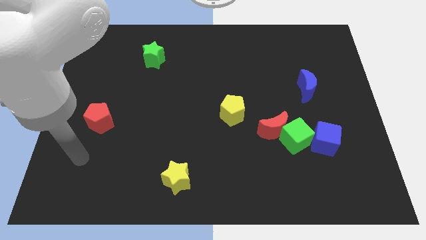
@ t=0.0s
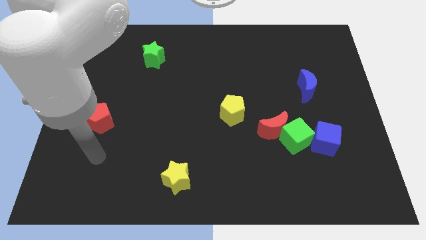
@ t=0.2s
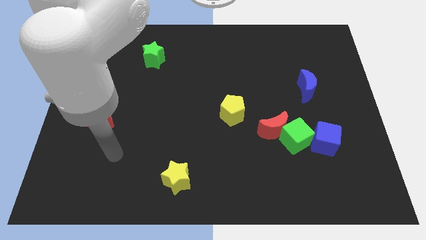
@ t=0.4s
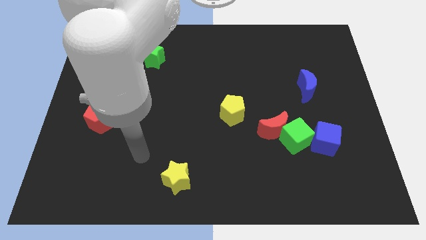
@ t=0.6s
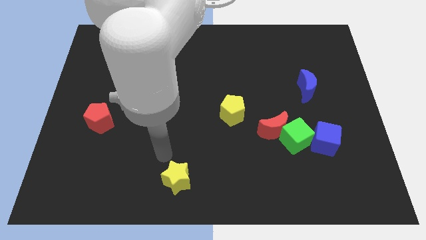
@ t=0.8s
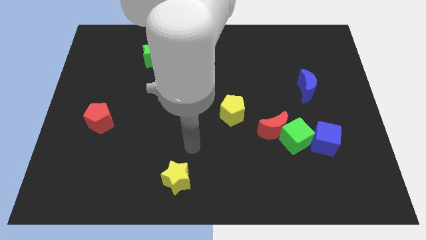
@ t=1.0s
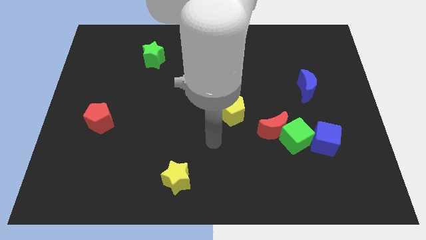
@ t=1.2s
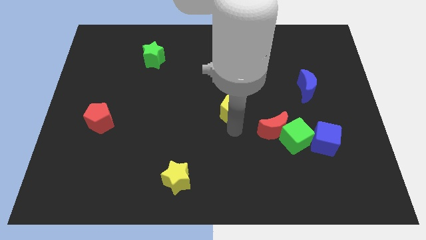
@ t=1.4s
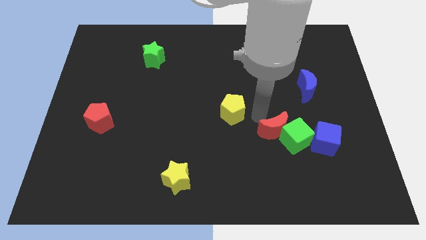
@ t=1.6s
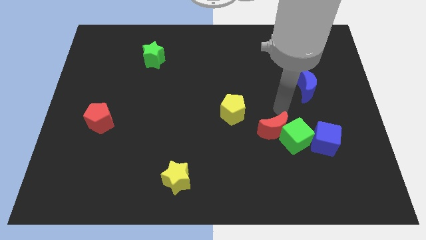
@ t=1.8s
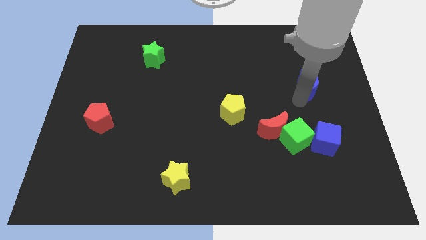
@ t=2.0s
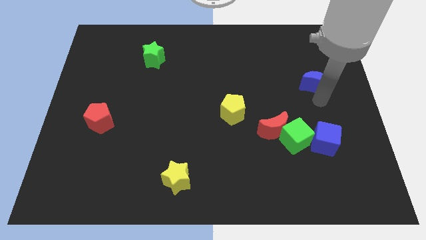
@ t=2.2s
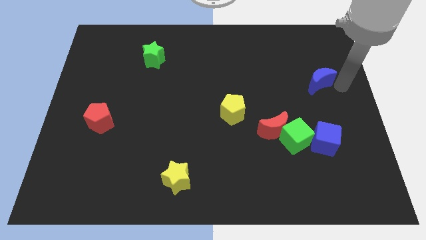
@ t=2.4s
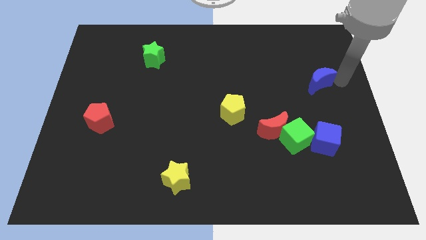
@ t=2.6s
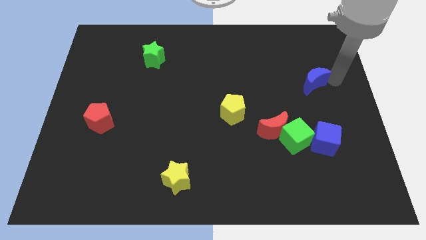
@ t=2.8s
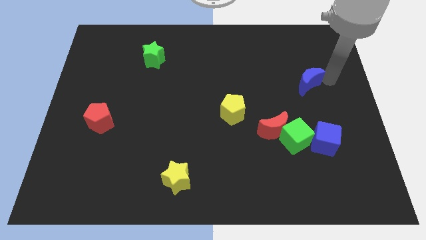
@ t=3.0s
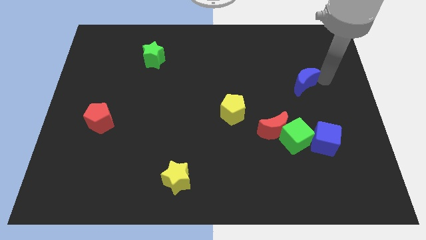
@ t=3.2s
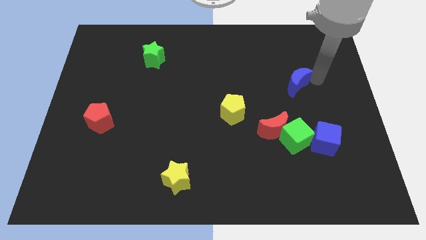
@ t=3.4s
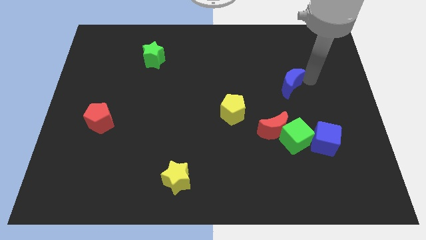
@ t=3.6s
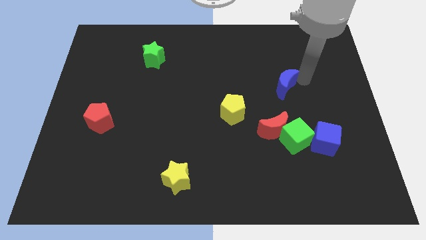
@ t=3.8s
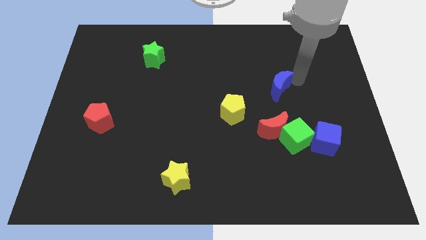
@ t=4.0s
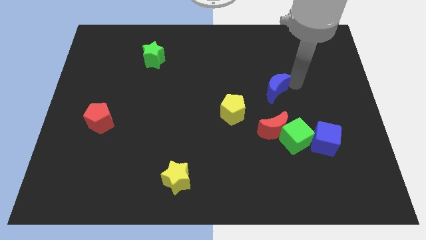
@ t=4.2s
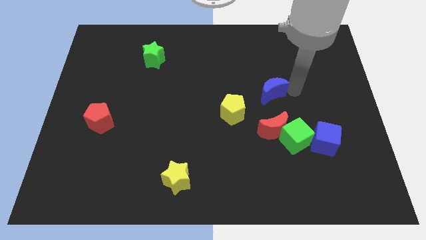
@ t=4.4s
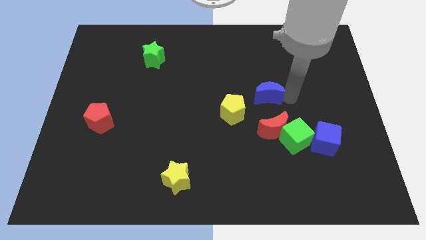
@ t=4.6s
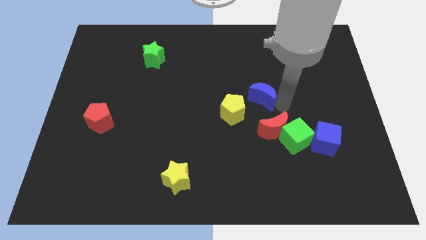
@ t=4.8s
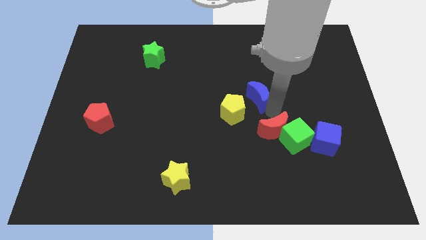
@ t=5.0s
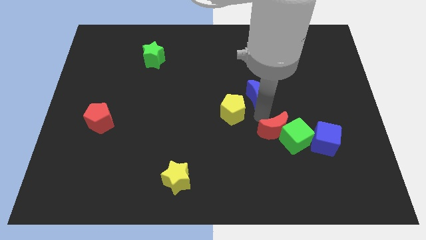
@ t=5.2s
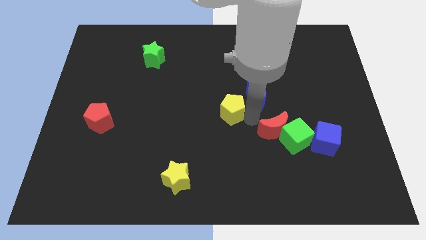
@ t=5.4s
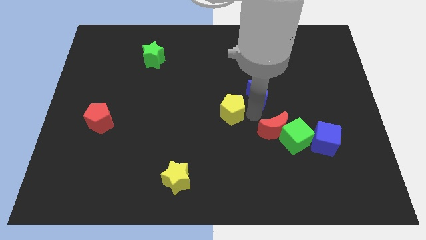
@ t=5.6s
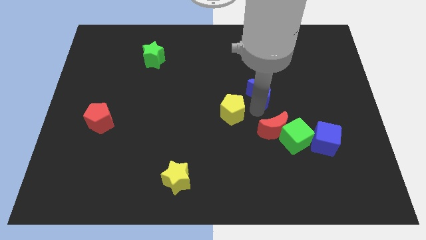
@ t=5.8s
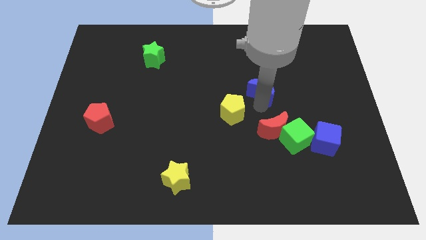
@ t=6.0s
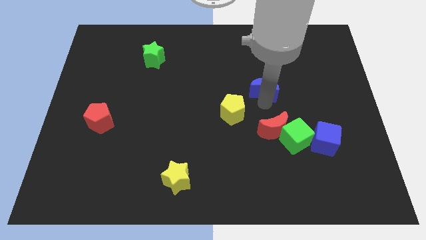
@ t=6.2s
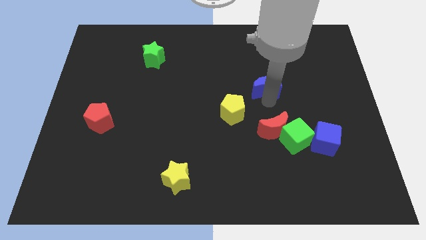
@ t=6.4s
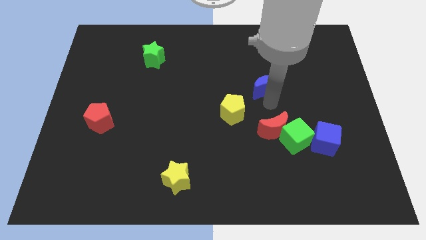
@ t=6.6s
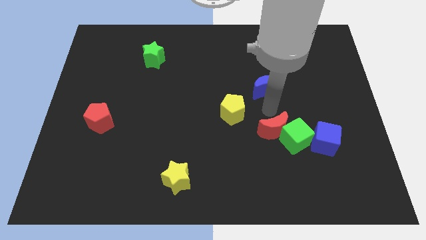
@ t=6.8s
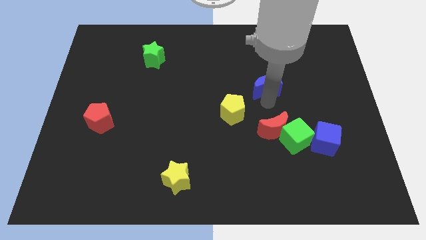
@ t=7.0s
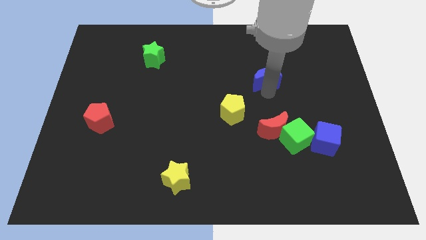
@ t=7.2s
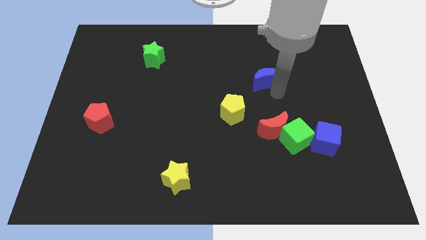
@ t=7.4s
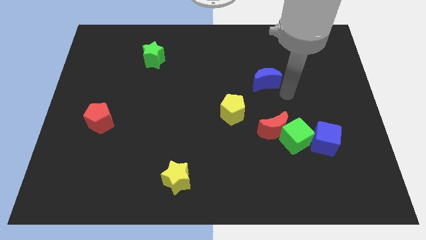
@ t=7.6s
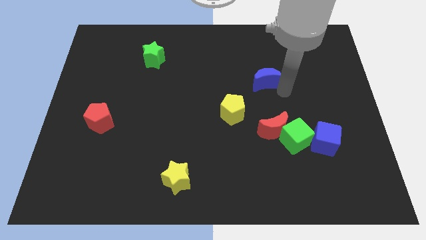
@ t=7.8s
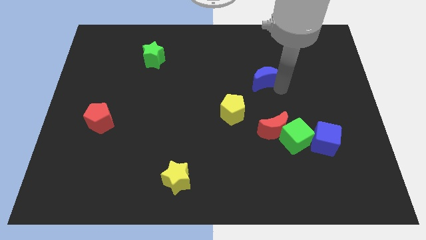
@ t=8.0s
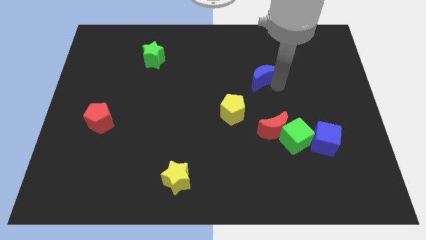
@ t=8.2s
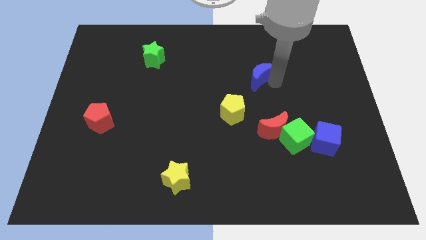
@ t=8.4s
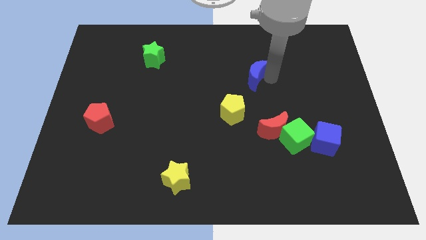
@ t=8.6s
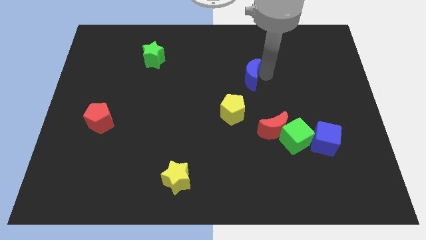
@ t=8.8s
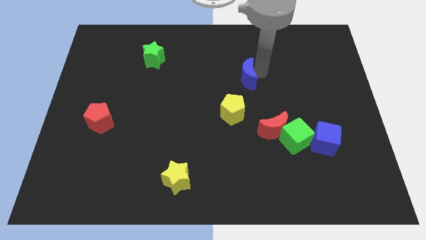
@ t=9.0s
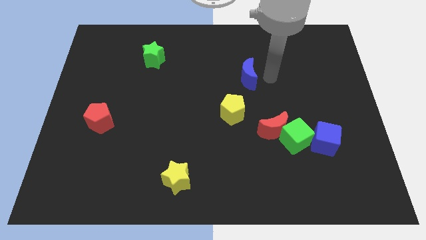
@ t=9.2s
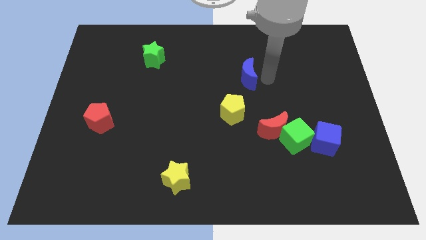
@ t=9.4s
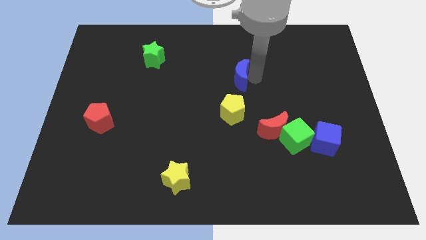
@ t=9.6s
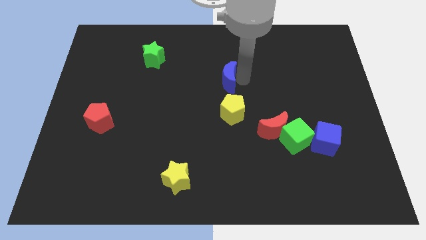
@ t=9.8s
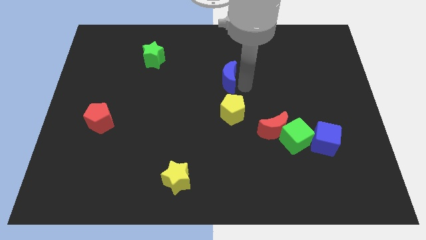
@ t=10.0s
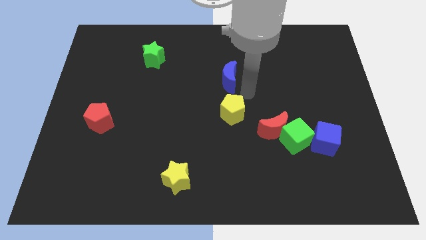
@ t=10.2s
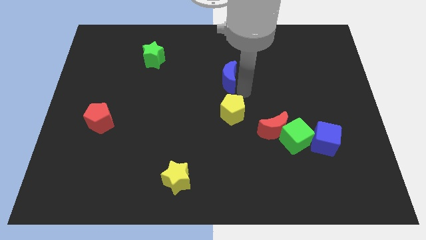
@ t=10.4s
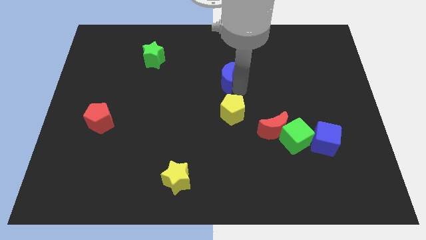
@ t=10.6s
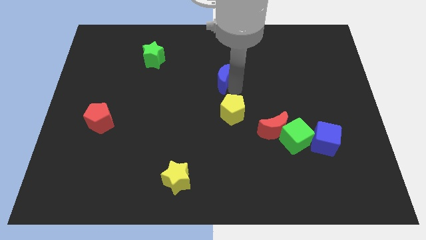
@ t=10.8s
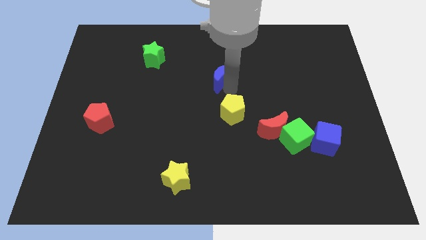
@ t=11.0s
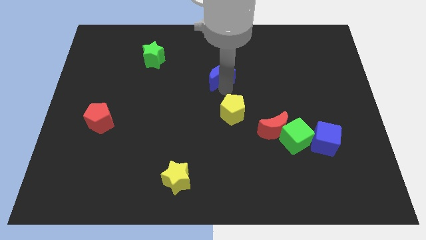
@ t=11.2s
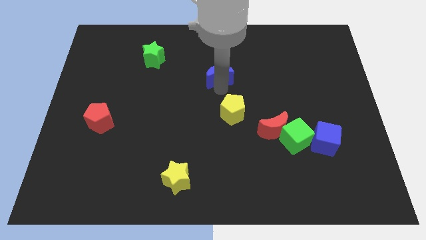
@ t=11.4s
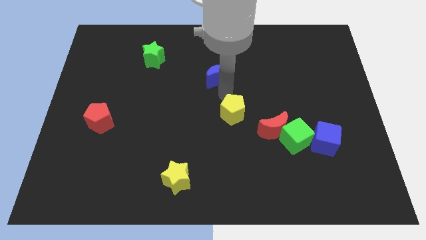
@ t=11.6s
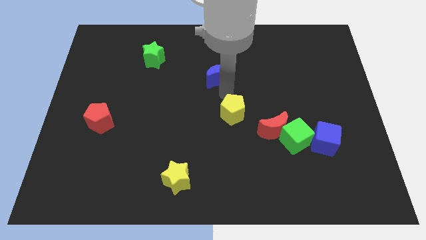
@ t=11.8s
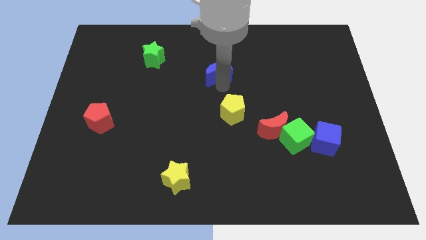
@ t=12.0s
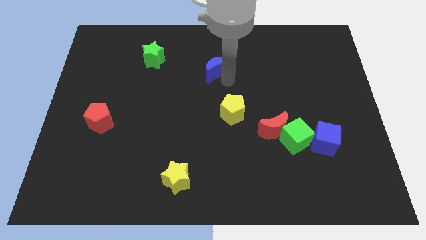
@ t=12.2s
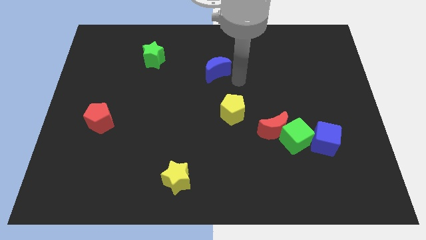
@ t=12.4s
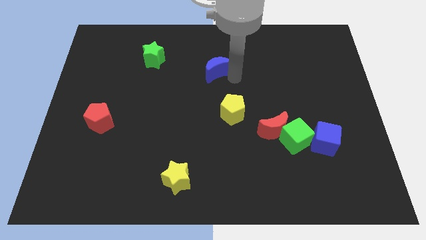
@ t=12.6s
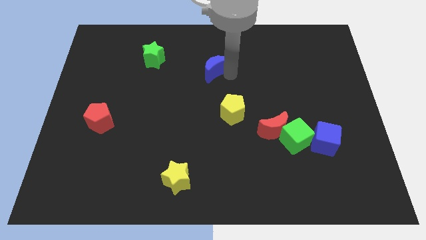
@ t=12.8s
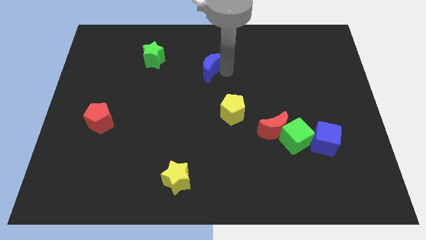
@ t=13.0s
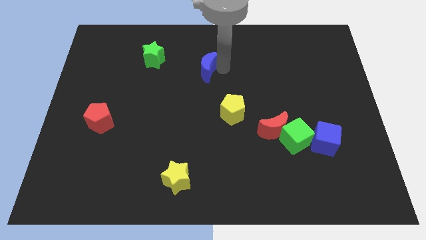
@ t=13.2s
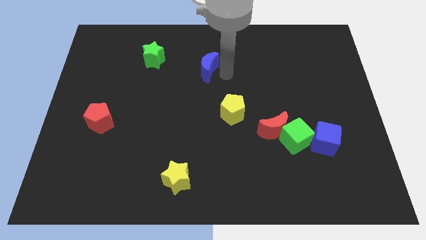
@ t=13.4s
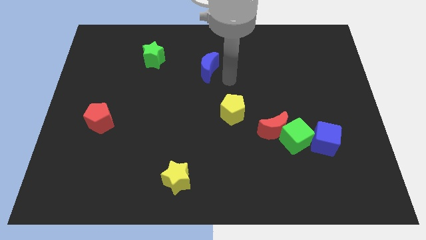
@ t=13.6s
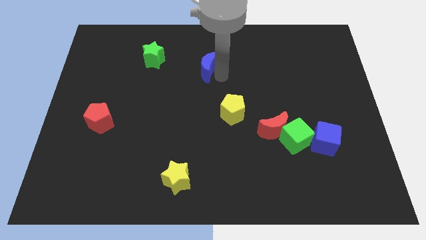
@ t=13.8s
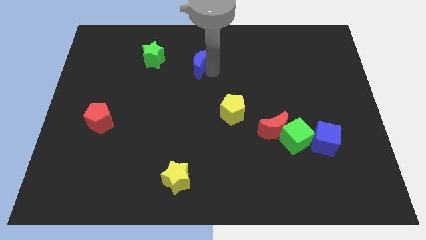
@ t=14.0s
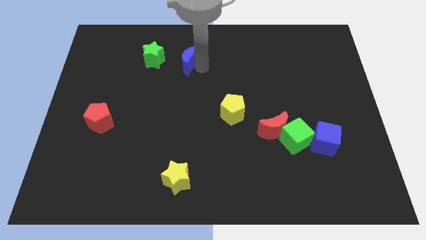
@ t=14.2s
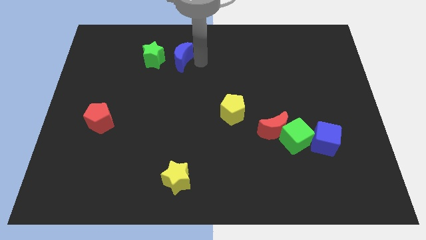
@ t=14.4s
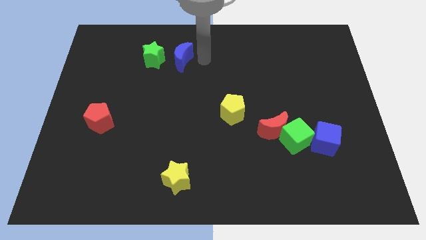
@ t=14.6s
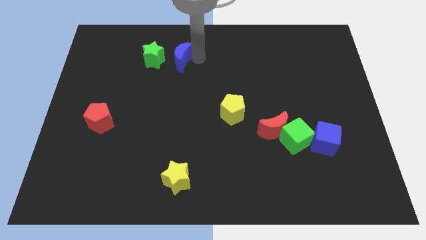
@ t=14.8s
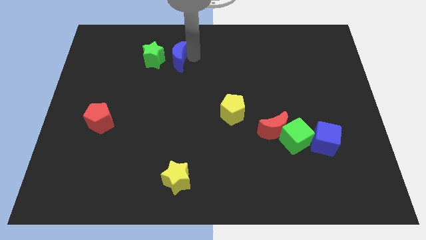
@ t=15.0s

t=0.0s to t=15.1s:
put the blue moon next to the green star
